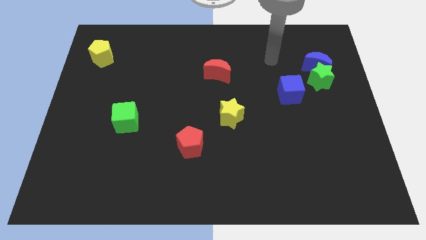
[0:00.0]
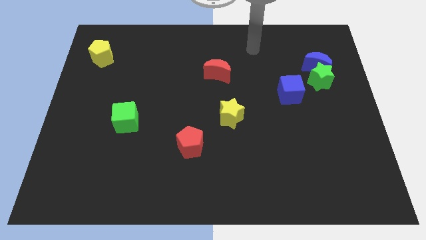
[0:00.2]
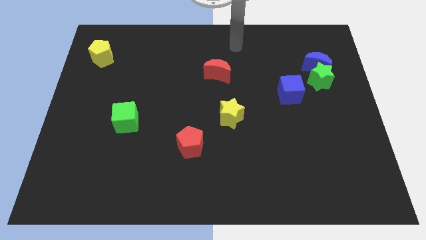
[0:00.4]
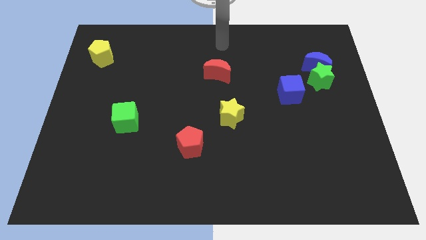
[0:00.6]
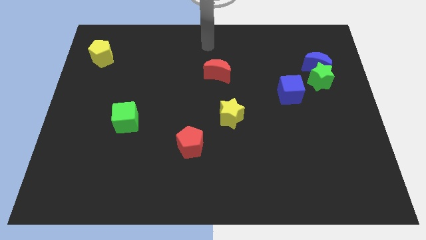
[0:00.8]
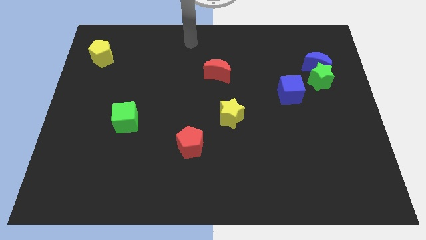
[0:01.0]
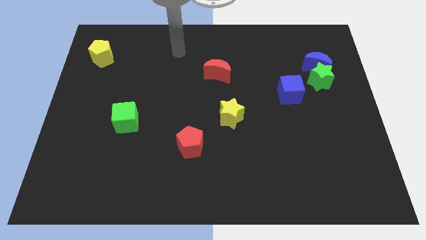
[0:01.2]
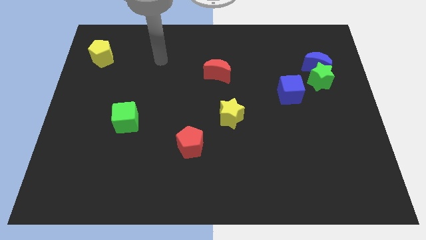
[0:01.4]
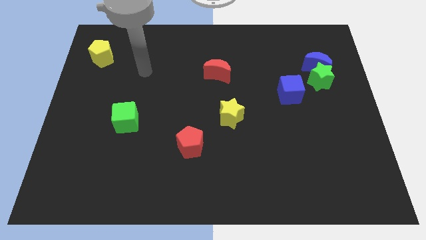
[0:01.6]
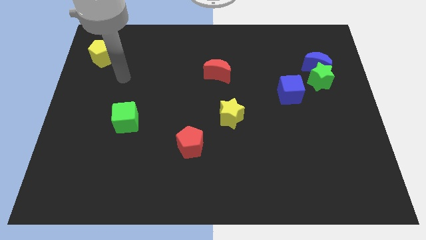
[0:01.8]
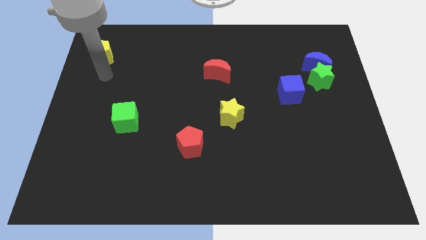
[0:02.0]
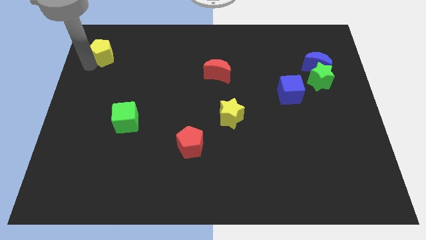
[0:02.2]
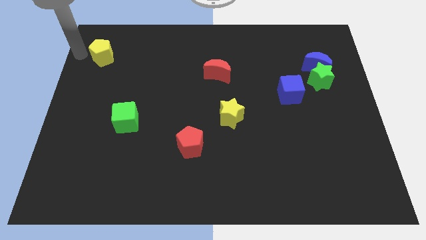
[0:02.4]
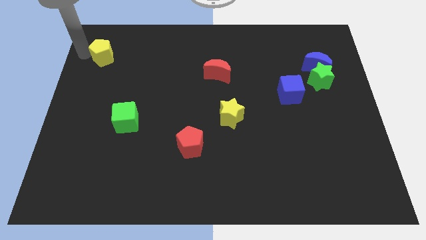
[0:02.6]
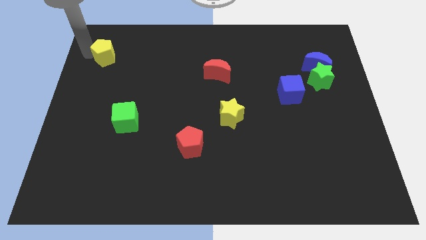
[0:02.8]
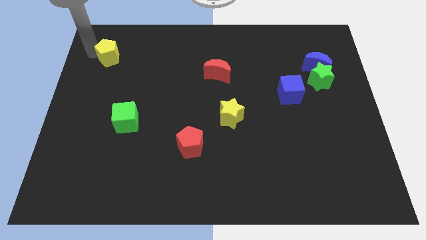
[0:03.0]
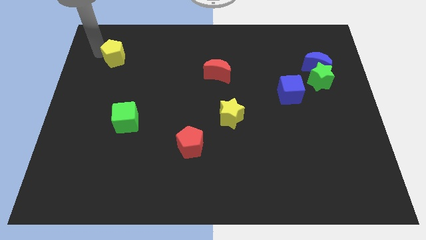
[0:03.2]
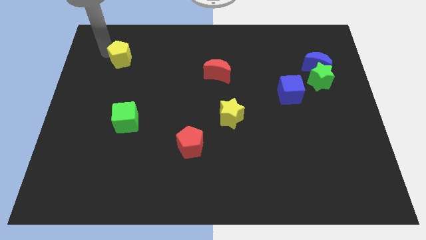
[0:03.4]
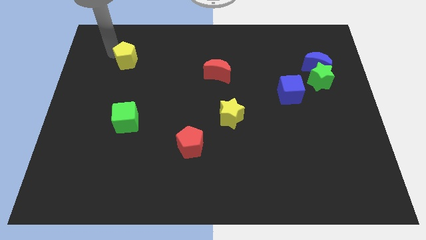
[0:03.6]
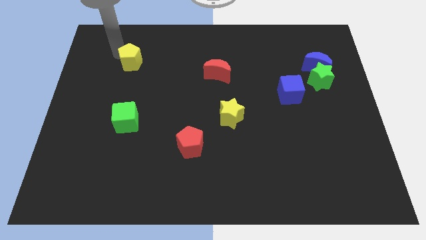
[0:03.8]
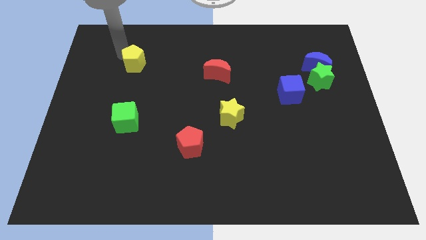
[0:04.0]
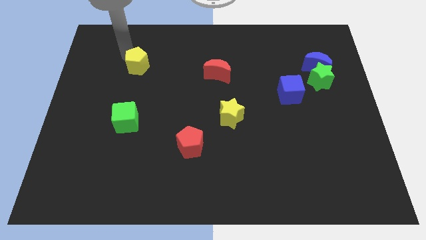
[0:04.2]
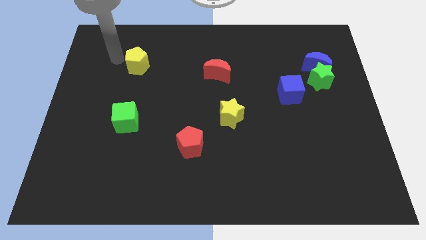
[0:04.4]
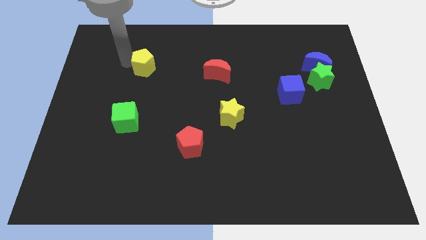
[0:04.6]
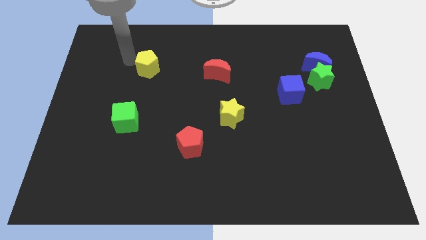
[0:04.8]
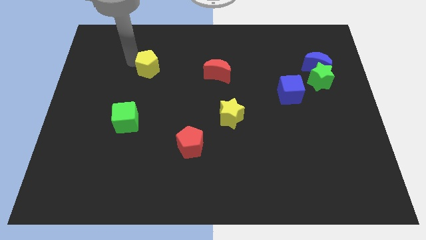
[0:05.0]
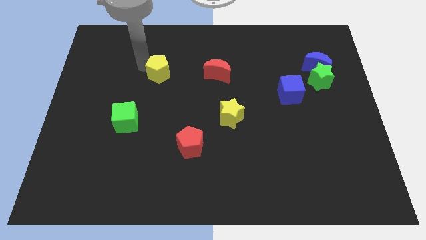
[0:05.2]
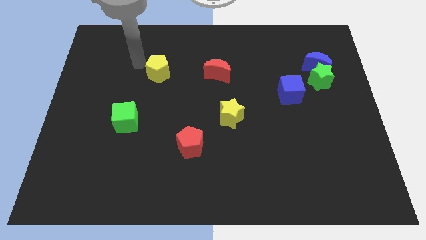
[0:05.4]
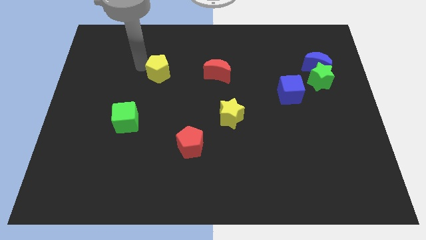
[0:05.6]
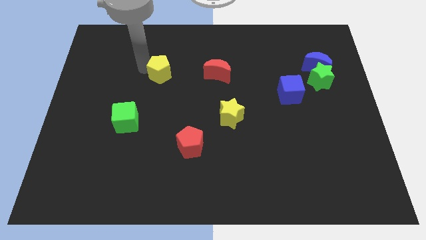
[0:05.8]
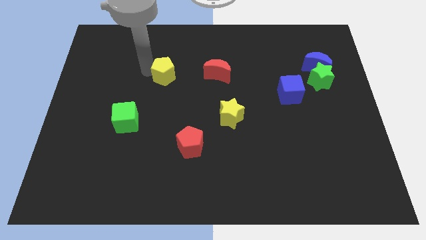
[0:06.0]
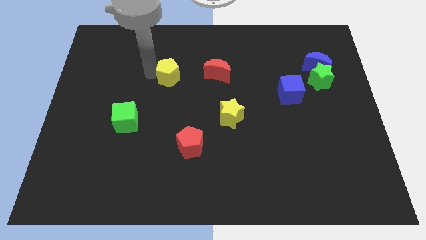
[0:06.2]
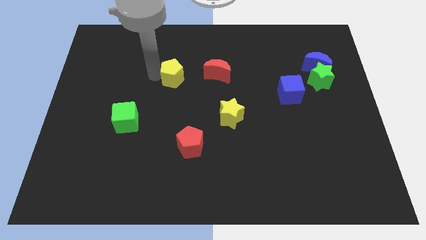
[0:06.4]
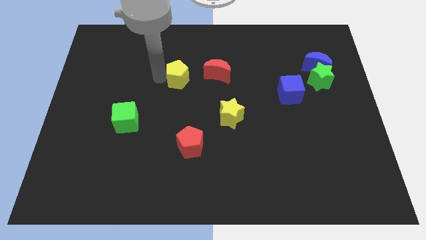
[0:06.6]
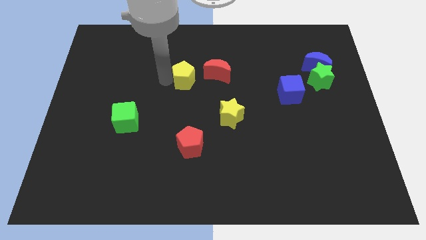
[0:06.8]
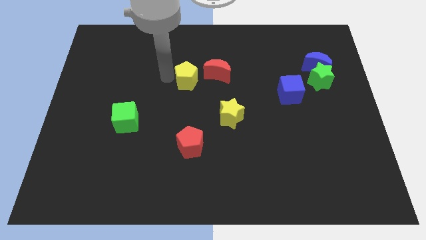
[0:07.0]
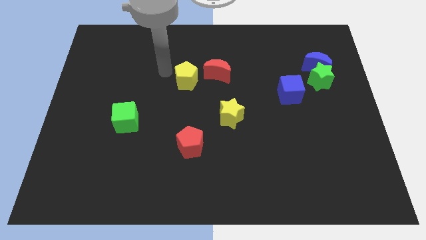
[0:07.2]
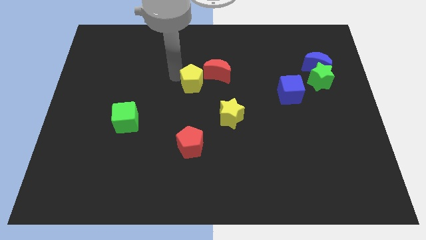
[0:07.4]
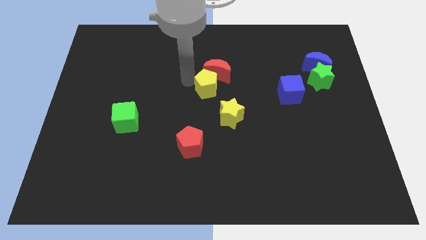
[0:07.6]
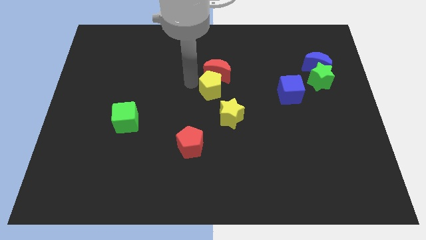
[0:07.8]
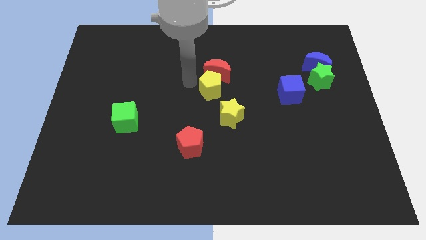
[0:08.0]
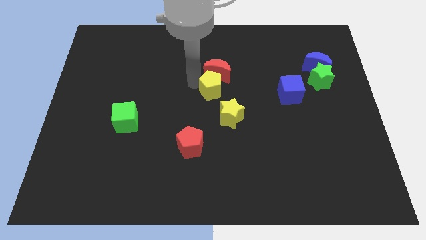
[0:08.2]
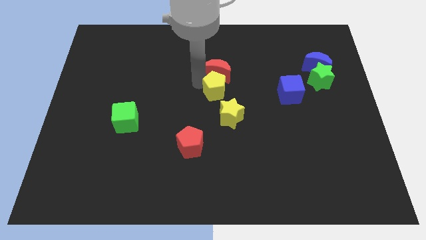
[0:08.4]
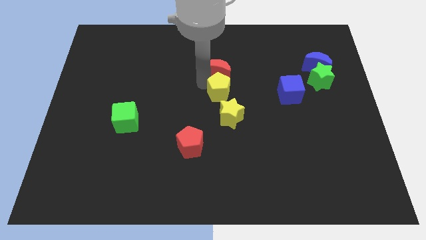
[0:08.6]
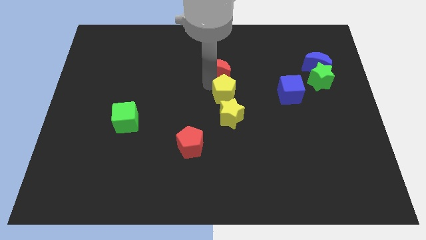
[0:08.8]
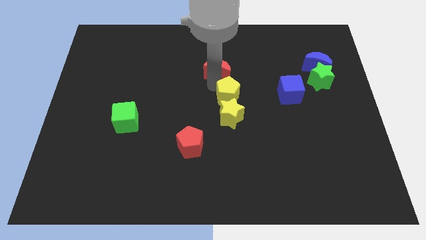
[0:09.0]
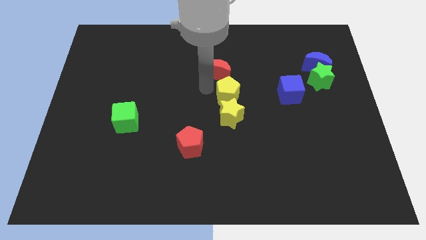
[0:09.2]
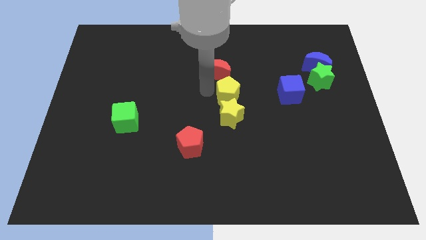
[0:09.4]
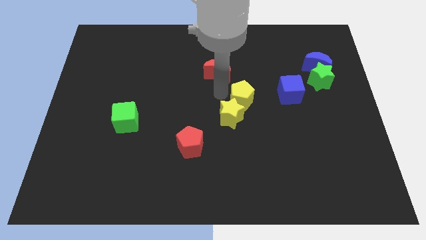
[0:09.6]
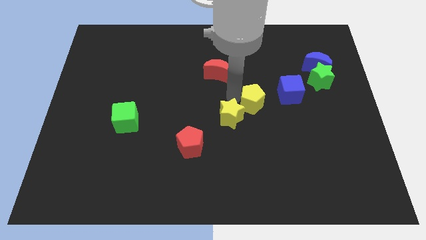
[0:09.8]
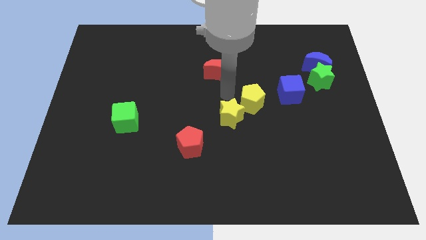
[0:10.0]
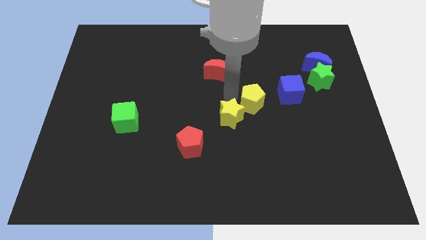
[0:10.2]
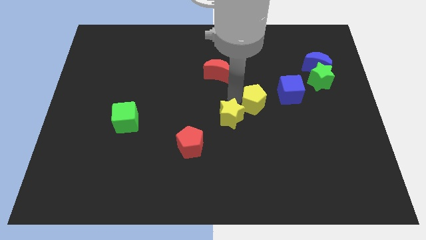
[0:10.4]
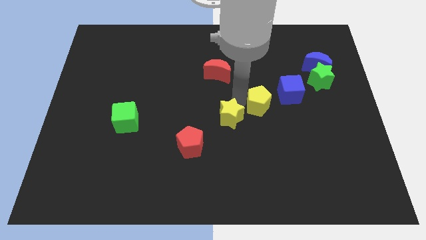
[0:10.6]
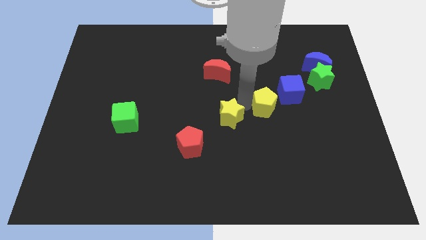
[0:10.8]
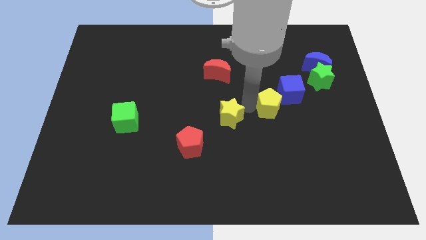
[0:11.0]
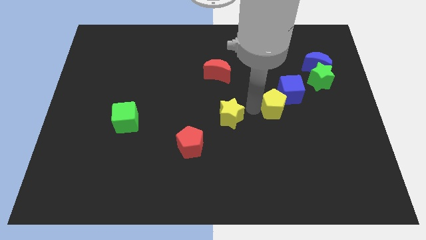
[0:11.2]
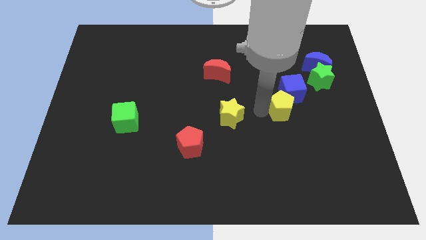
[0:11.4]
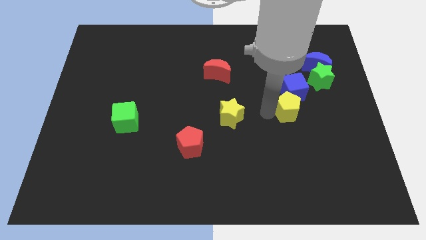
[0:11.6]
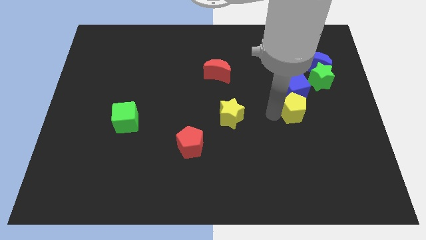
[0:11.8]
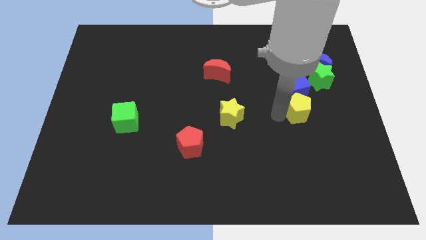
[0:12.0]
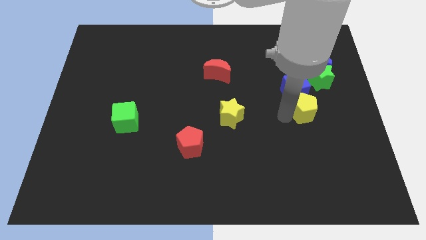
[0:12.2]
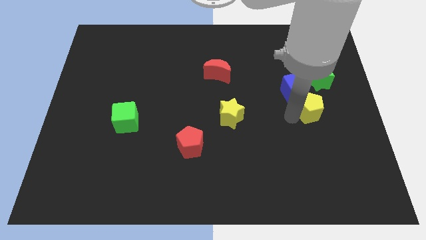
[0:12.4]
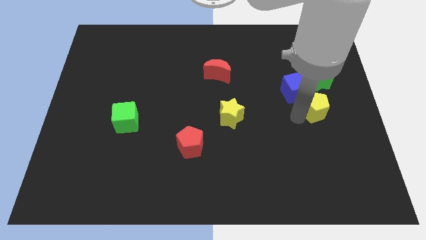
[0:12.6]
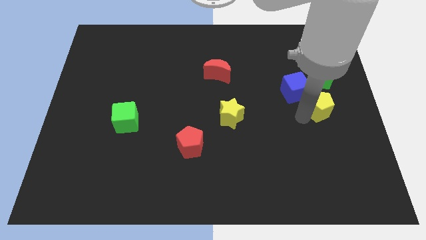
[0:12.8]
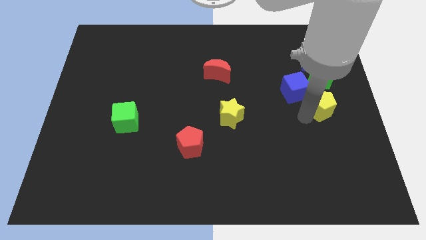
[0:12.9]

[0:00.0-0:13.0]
move the yellow pentagon to the center right
